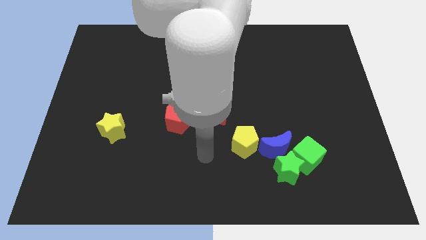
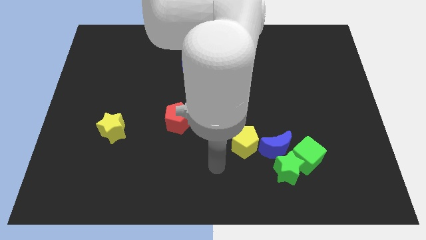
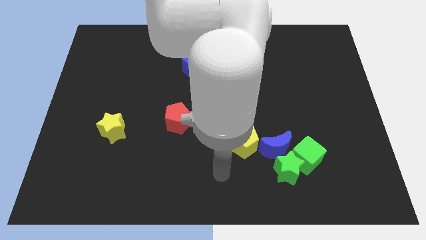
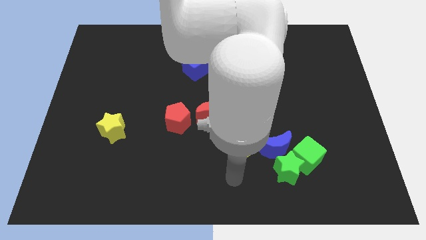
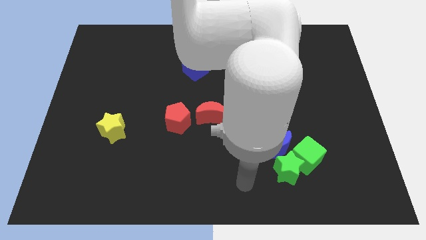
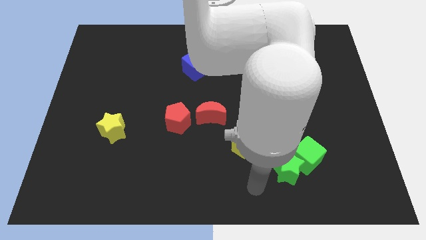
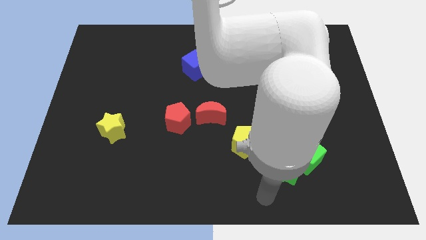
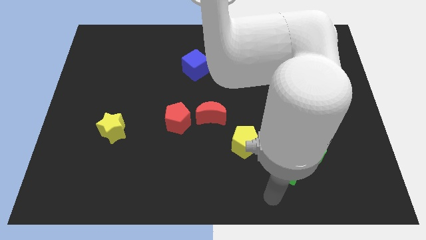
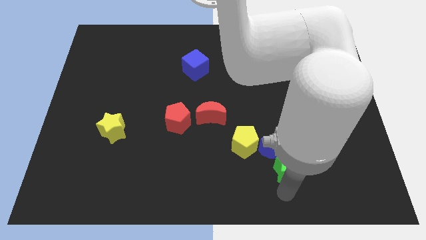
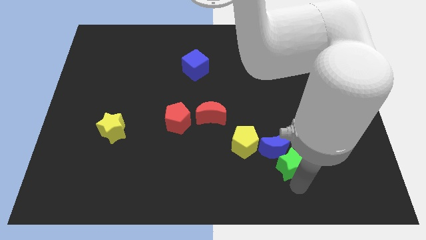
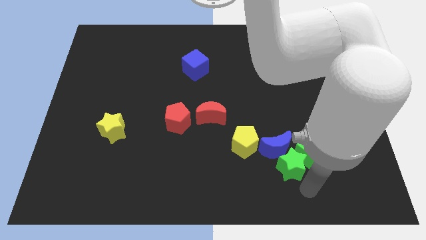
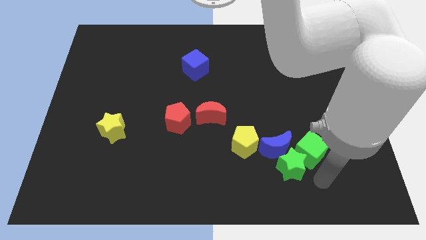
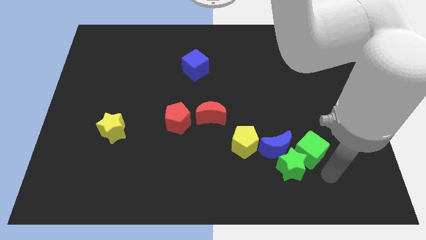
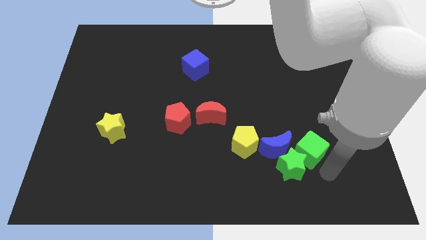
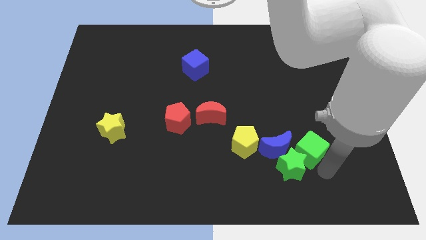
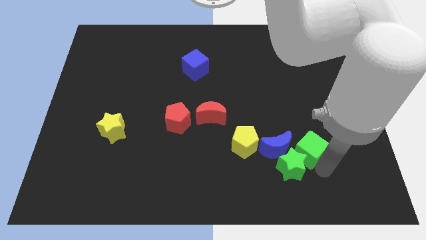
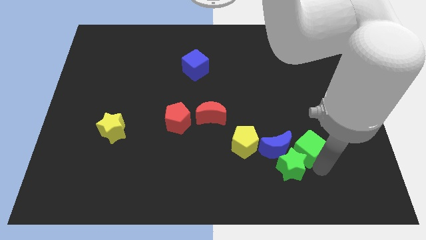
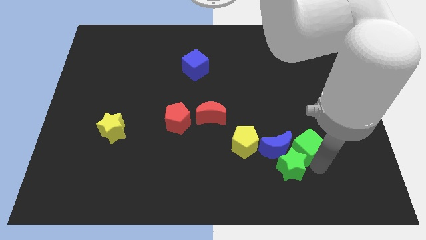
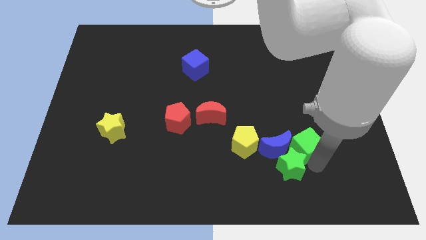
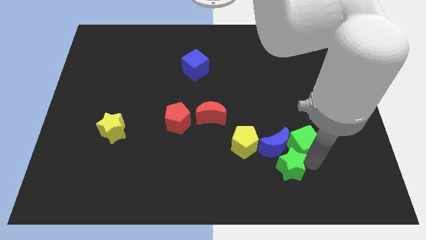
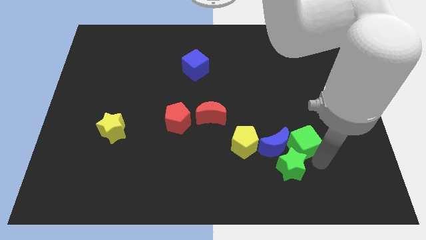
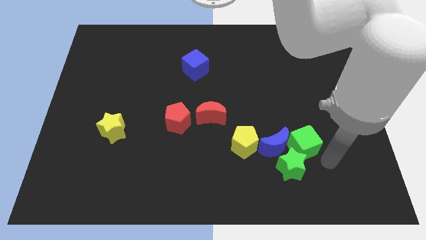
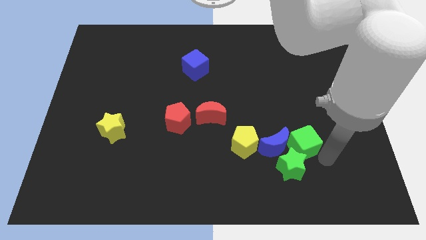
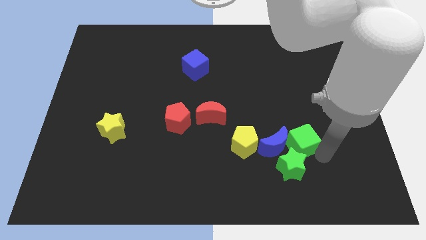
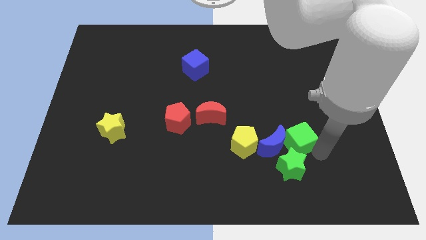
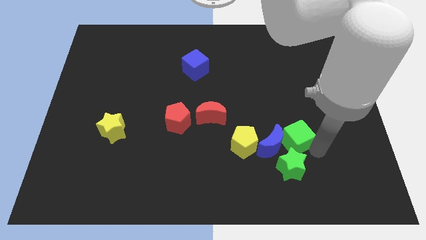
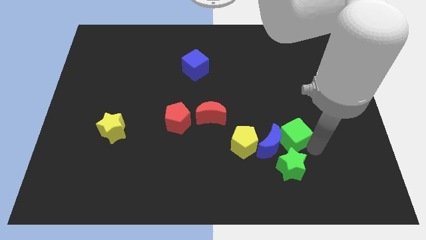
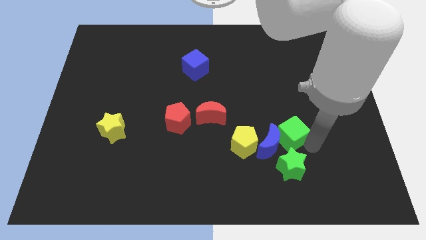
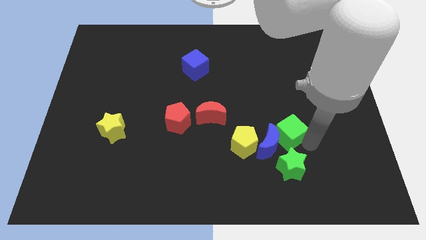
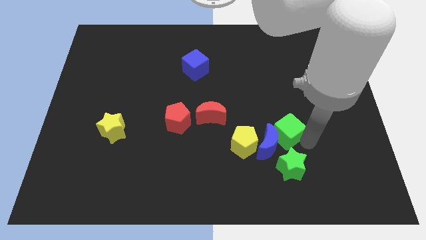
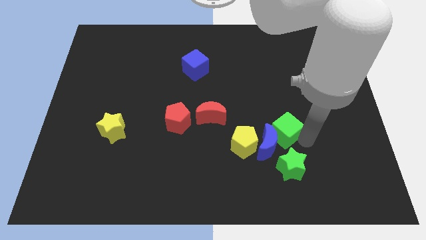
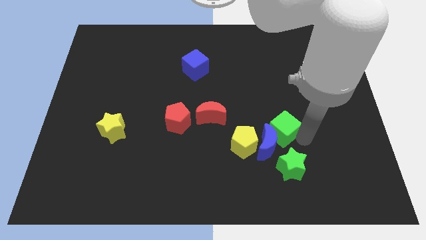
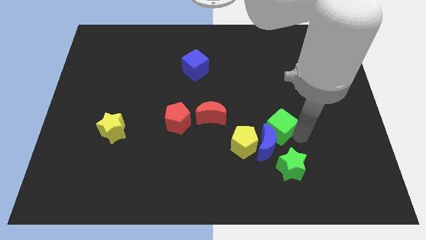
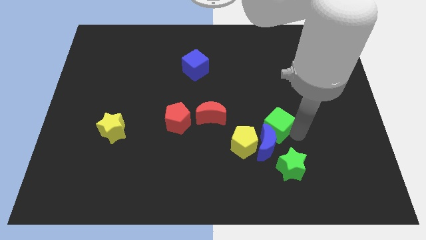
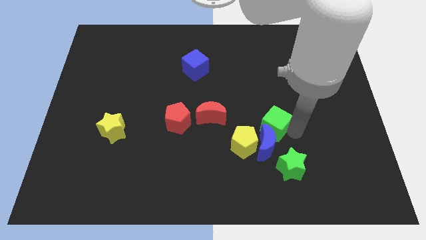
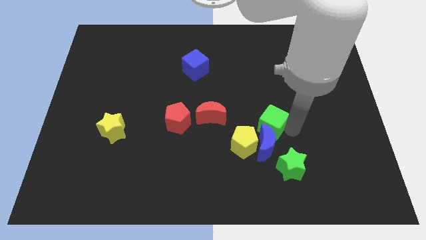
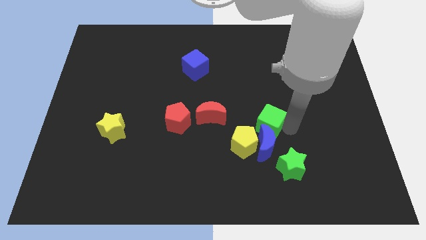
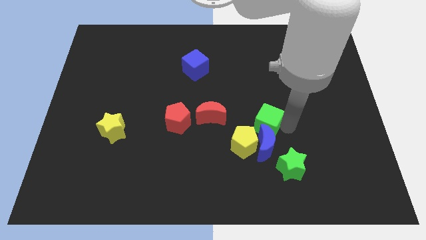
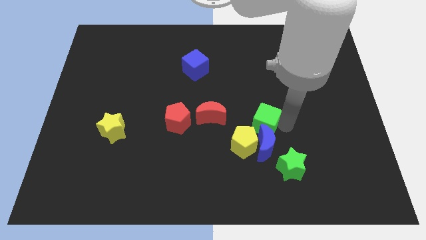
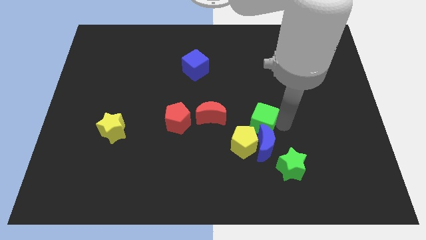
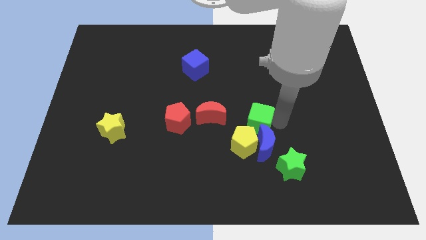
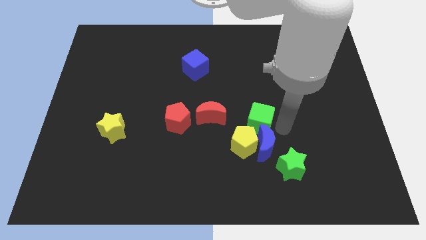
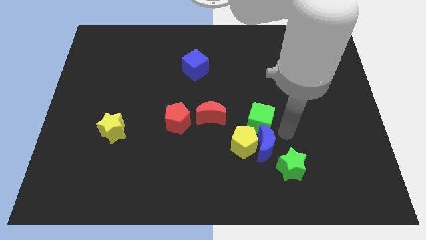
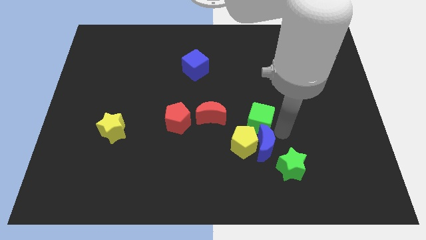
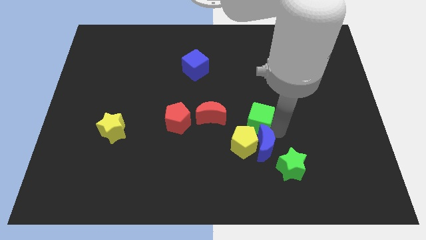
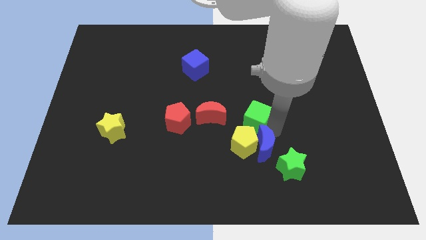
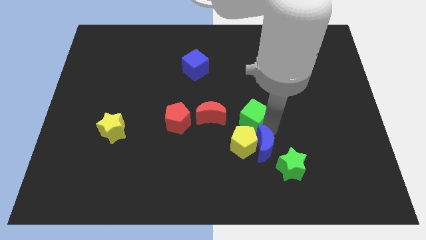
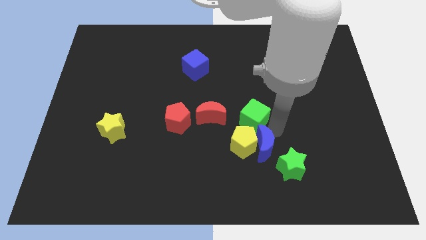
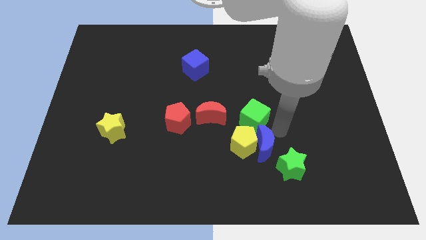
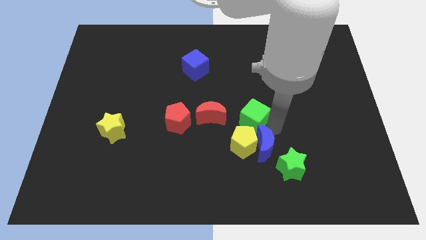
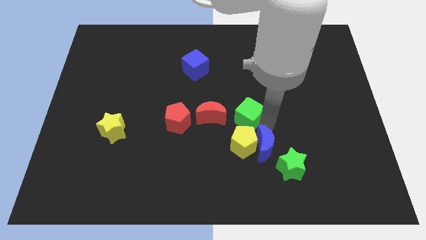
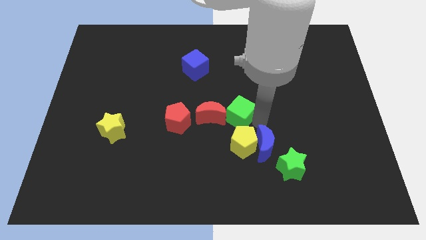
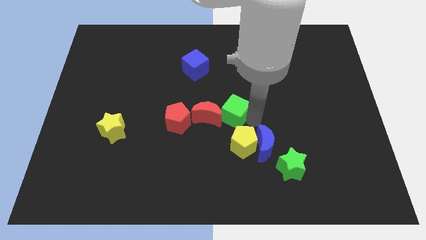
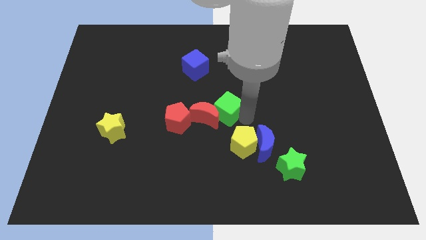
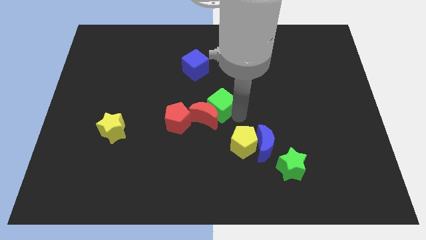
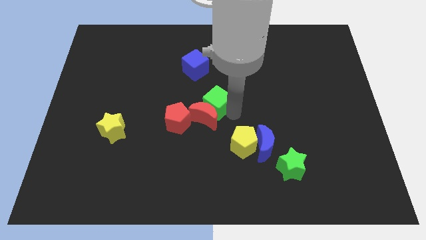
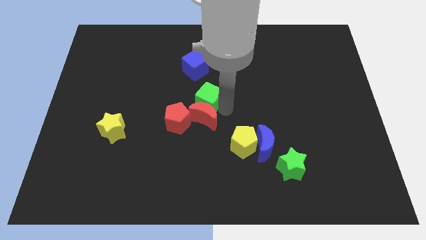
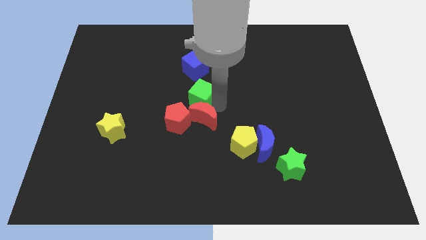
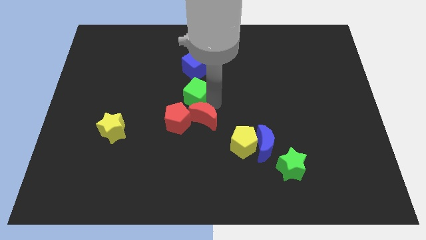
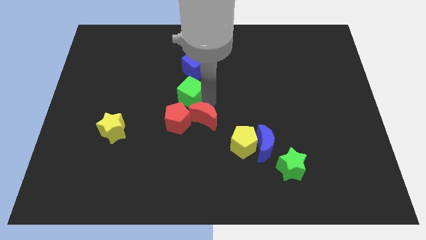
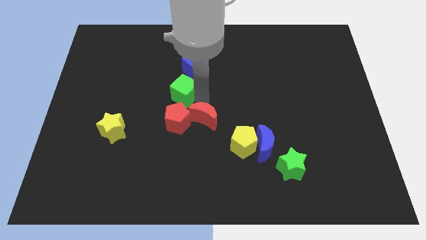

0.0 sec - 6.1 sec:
move the green cube diagonally down and to the left of the blue cube

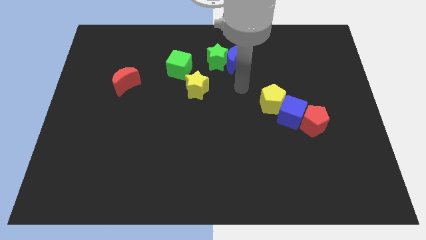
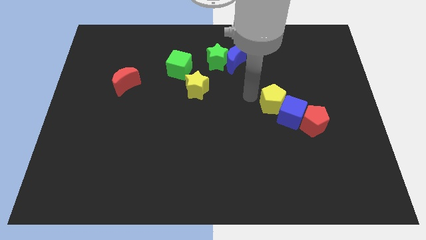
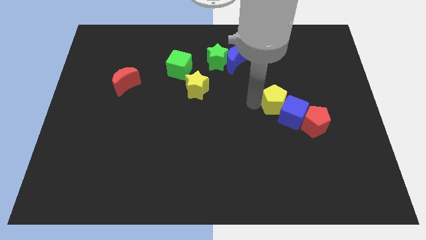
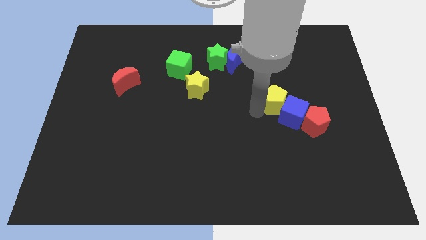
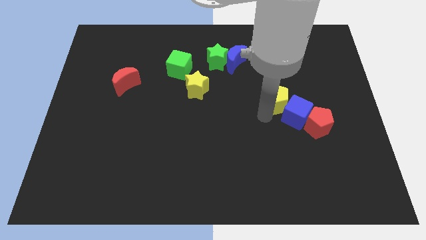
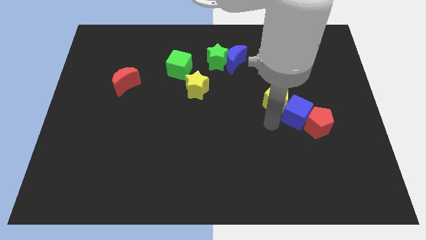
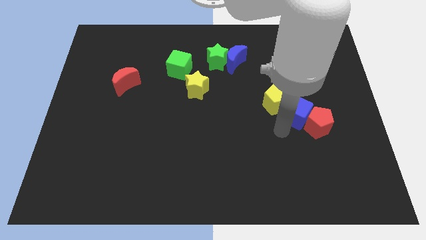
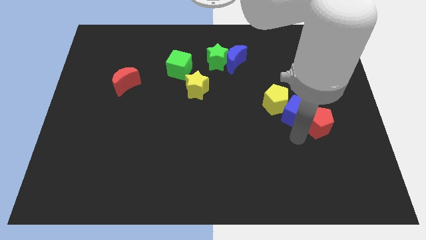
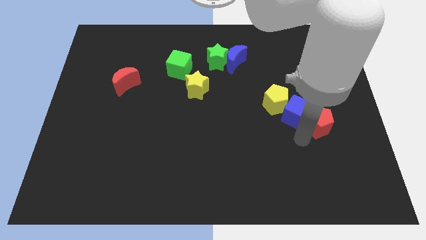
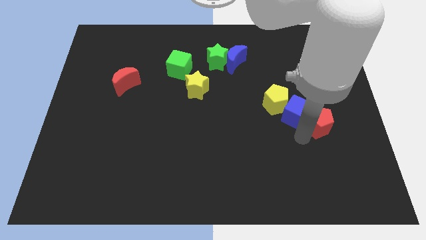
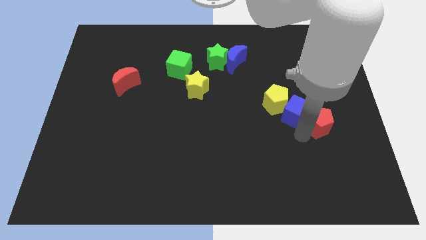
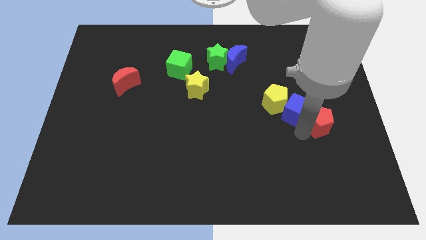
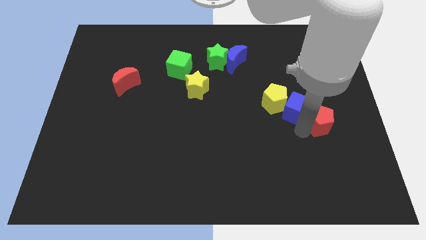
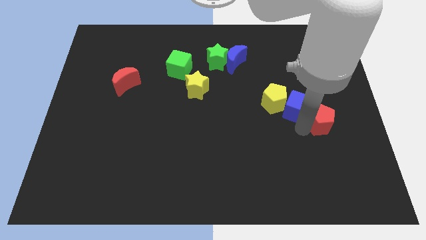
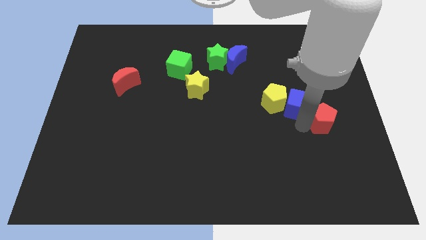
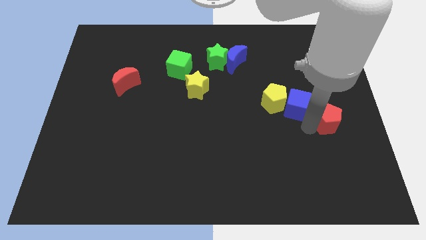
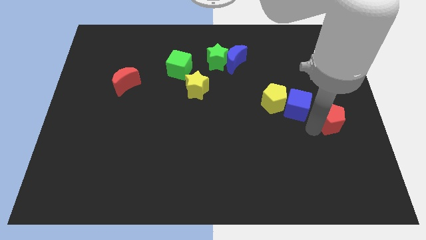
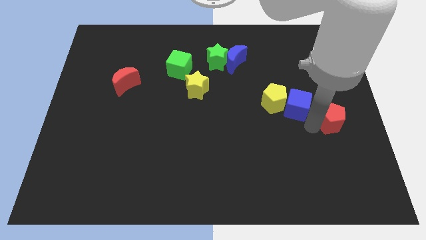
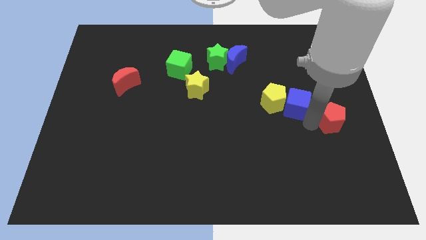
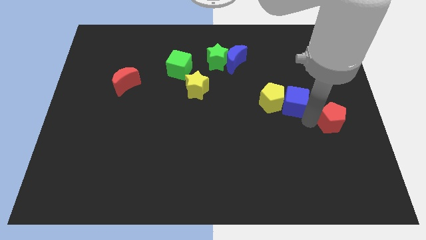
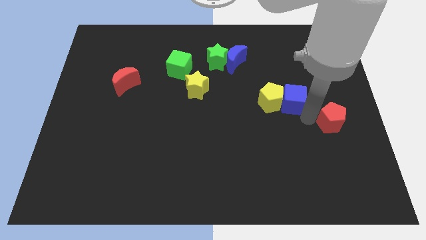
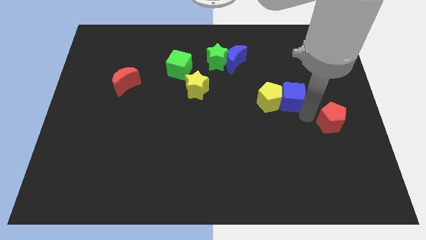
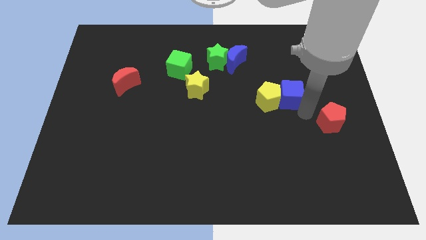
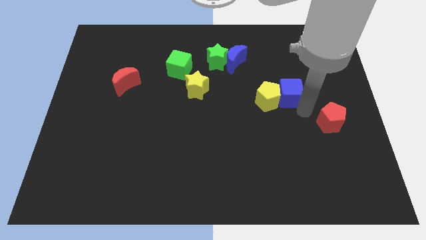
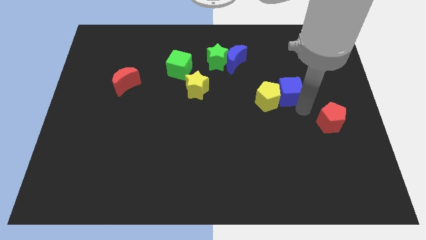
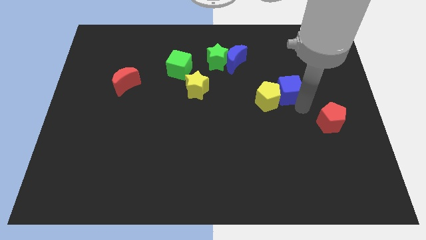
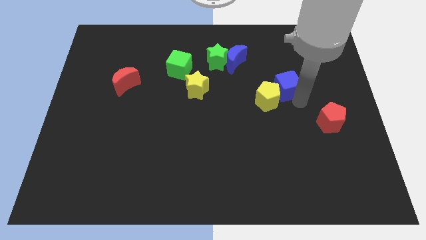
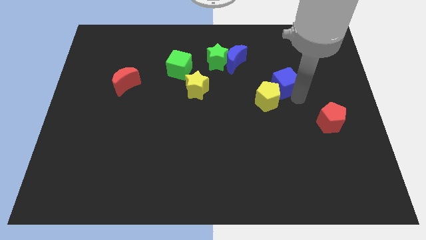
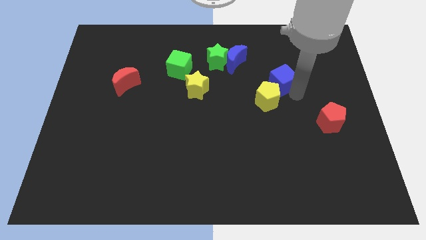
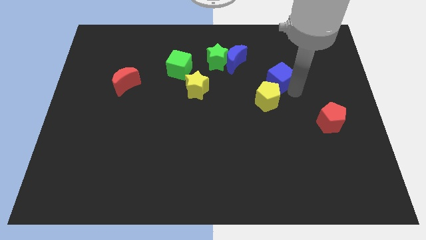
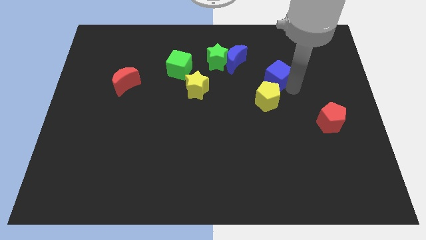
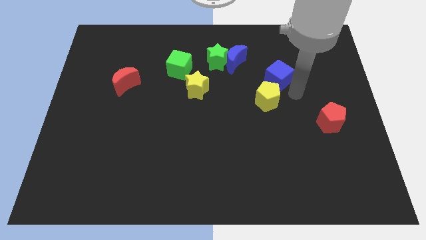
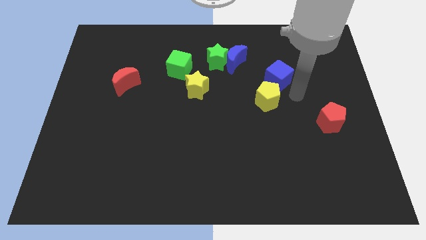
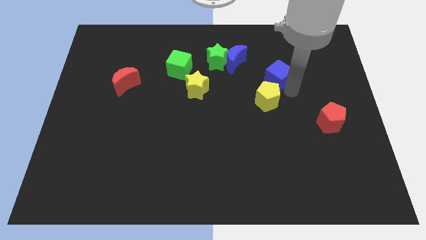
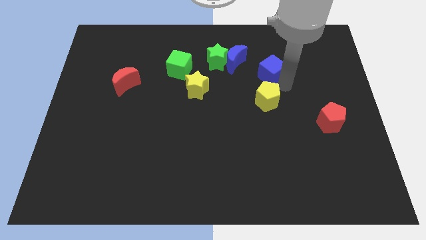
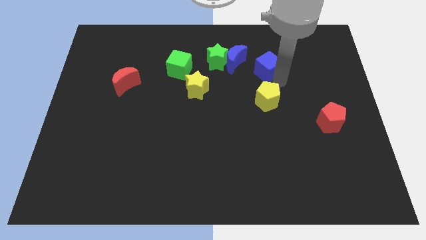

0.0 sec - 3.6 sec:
slide the blue cube to the right of the green star
